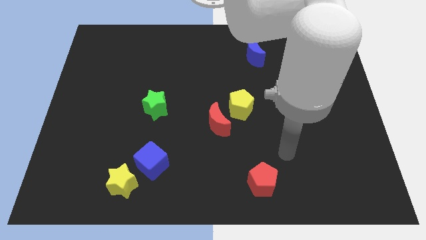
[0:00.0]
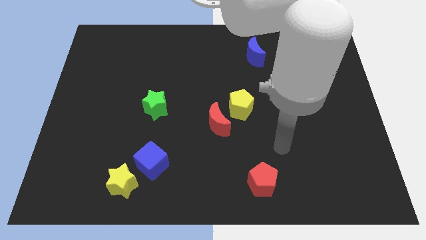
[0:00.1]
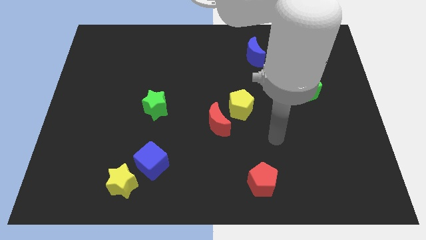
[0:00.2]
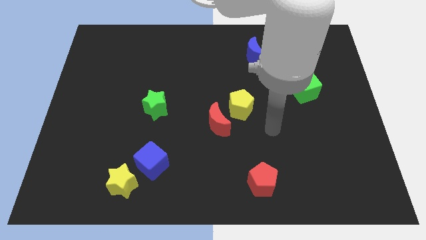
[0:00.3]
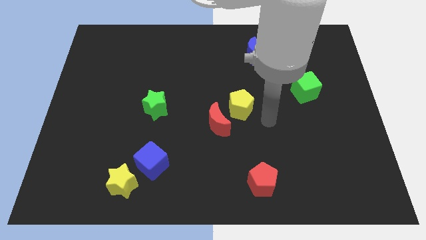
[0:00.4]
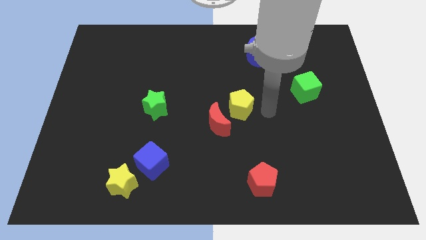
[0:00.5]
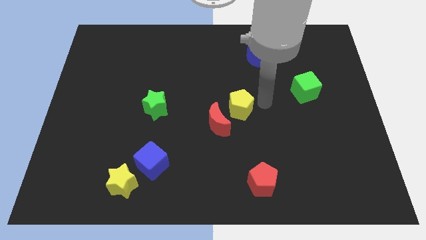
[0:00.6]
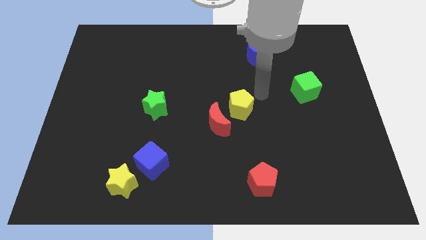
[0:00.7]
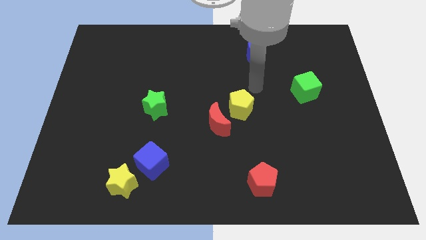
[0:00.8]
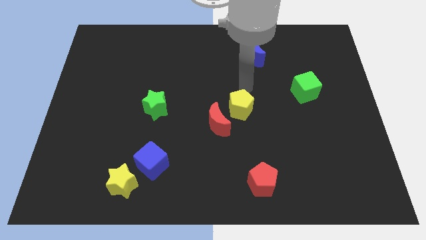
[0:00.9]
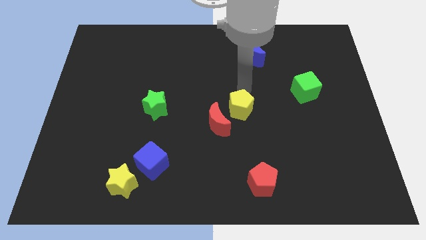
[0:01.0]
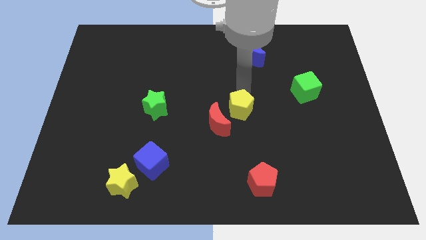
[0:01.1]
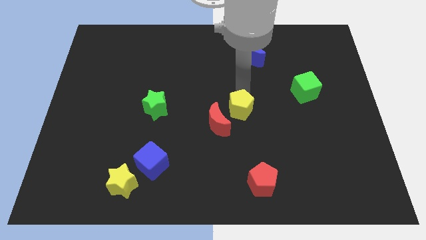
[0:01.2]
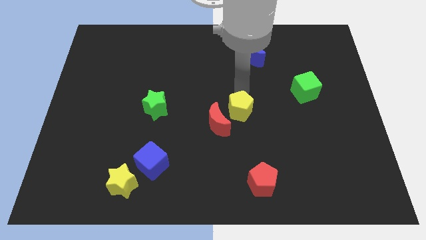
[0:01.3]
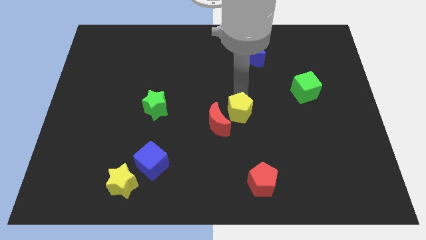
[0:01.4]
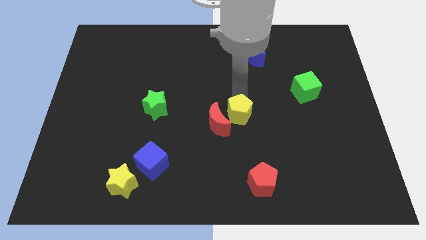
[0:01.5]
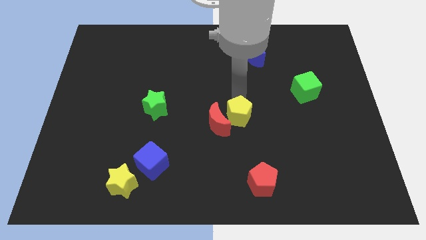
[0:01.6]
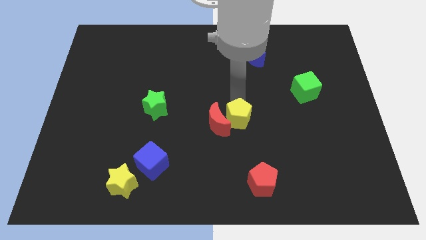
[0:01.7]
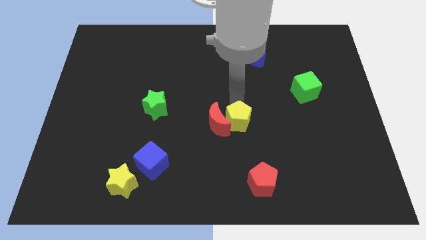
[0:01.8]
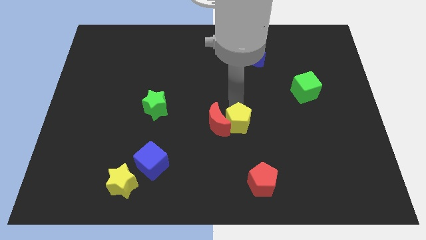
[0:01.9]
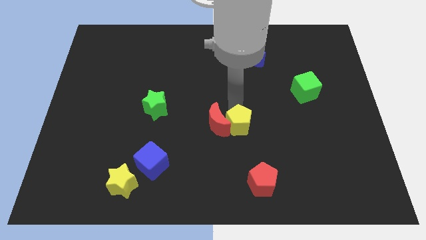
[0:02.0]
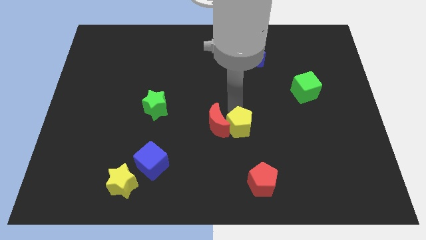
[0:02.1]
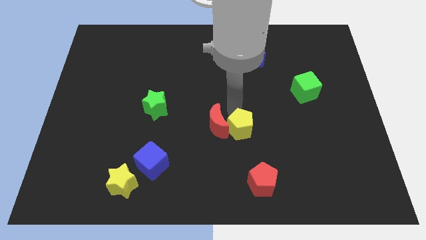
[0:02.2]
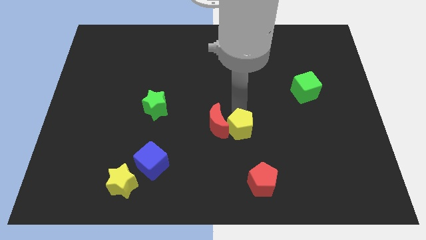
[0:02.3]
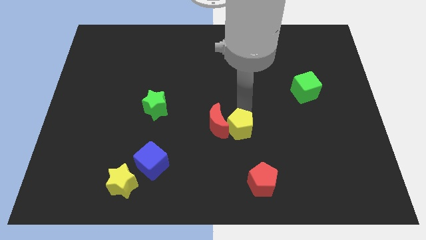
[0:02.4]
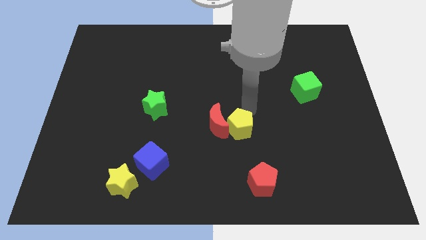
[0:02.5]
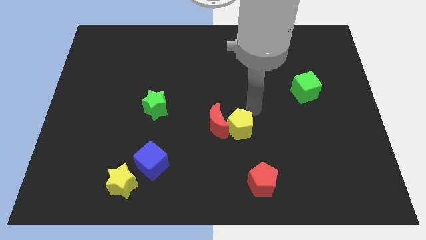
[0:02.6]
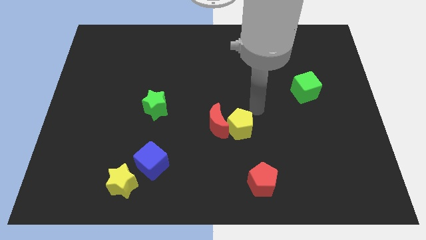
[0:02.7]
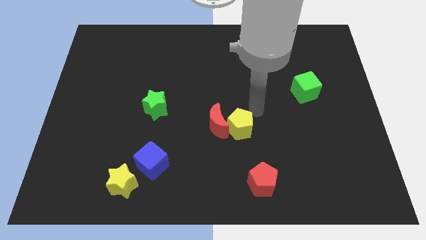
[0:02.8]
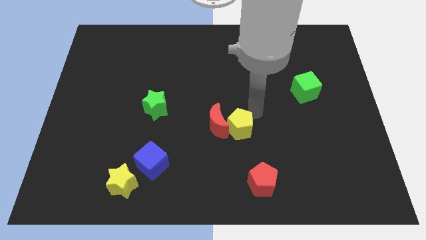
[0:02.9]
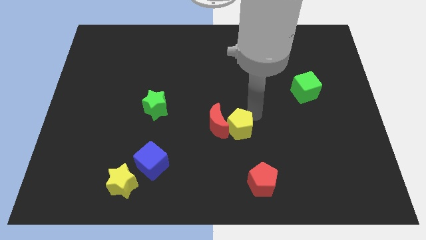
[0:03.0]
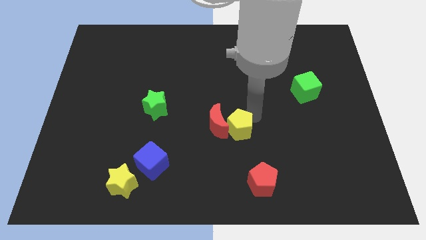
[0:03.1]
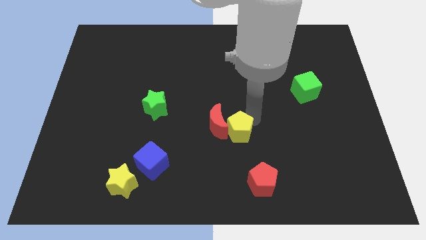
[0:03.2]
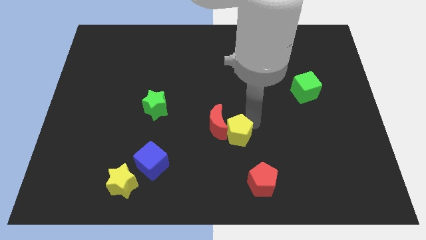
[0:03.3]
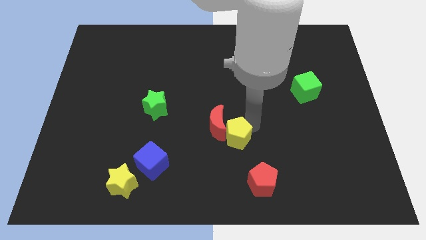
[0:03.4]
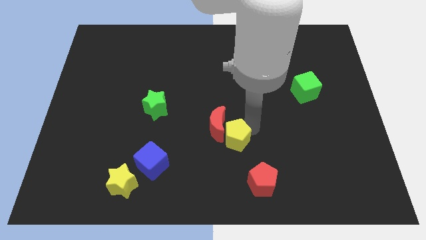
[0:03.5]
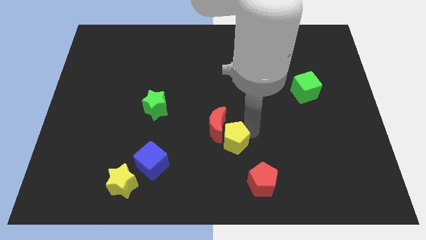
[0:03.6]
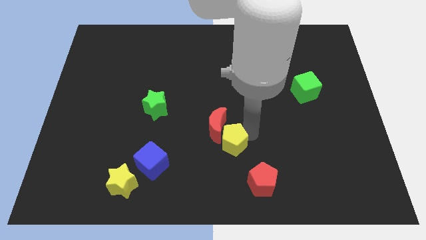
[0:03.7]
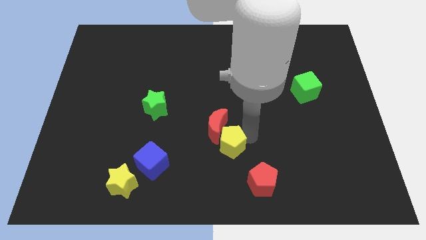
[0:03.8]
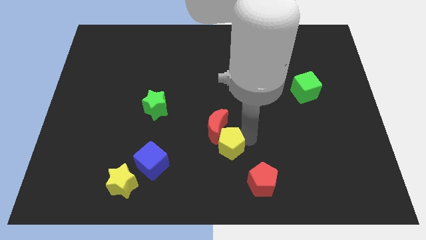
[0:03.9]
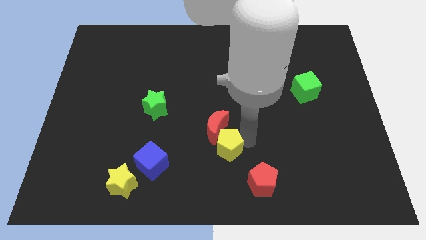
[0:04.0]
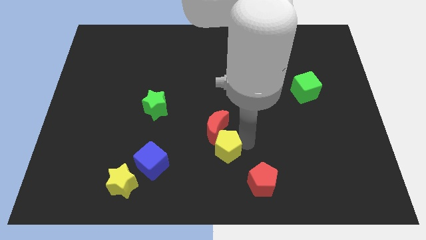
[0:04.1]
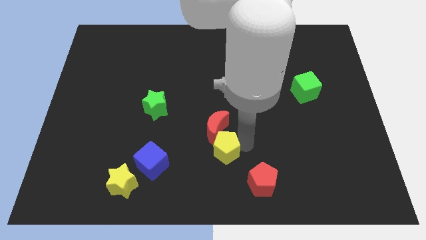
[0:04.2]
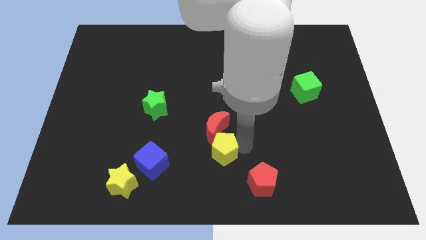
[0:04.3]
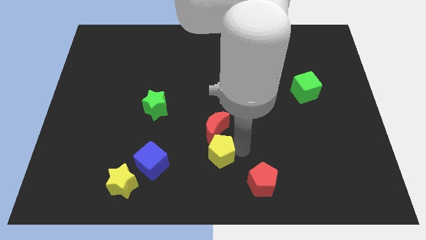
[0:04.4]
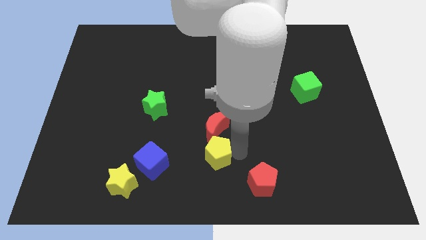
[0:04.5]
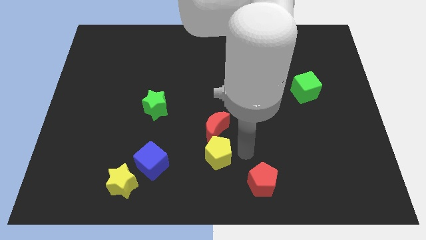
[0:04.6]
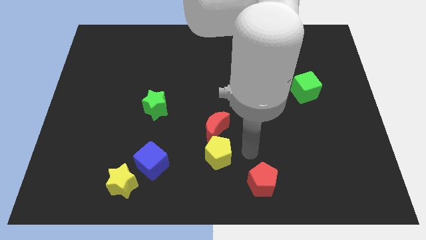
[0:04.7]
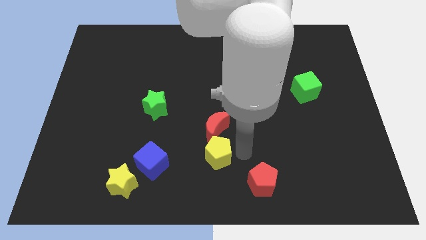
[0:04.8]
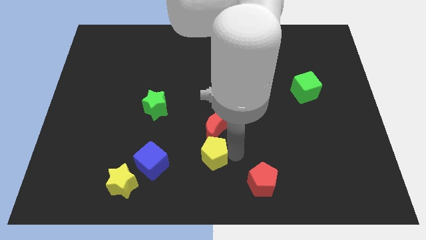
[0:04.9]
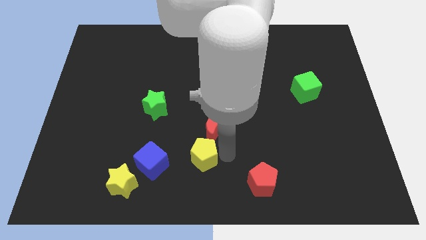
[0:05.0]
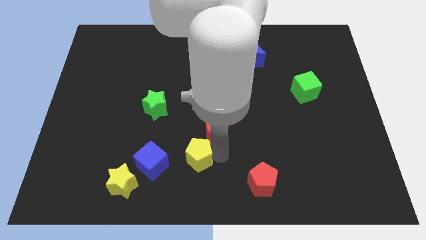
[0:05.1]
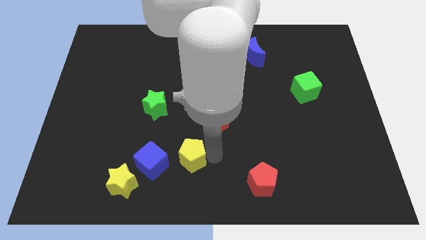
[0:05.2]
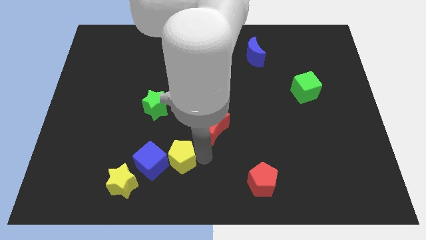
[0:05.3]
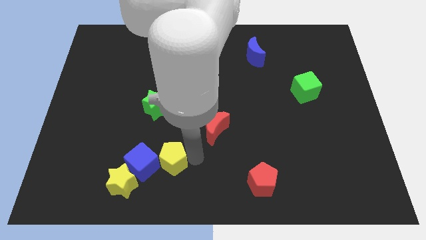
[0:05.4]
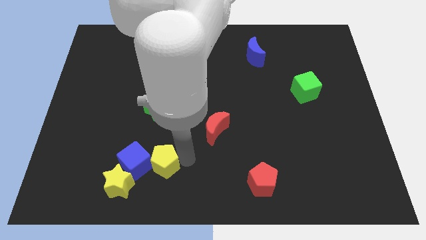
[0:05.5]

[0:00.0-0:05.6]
move the yellow pentagon to the blue cube

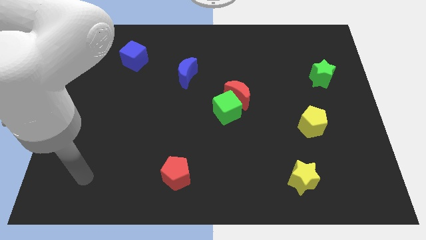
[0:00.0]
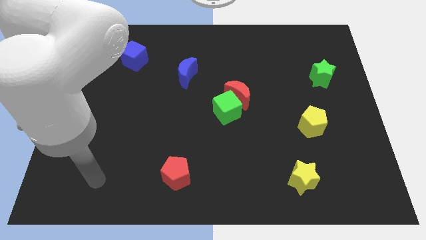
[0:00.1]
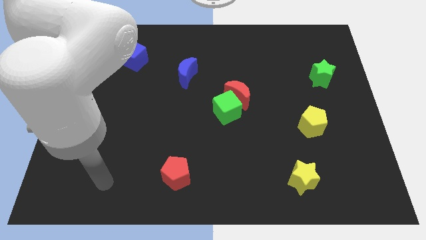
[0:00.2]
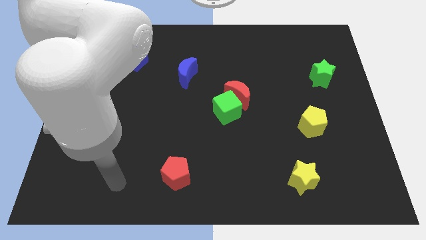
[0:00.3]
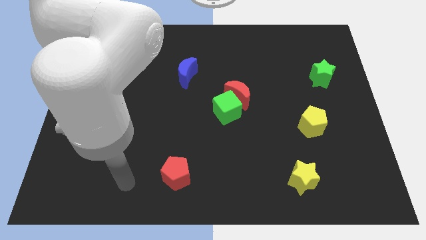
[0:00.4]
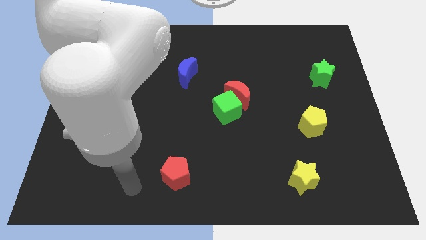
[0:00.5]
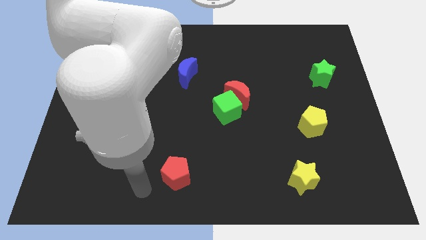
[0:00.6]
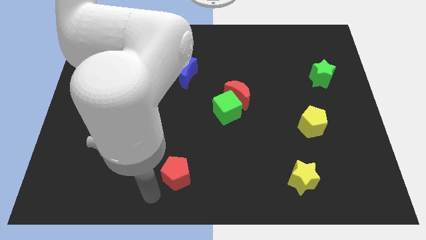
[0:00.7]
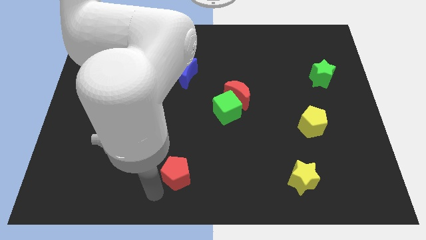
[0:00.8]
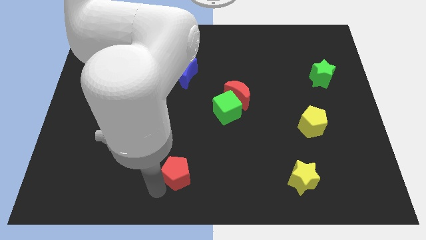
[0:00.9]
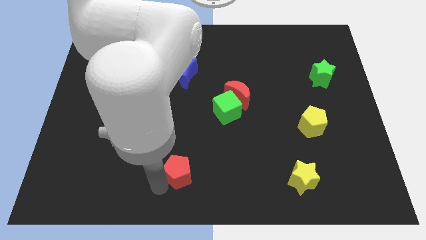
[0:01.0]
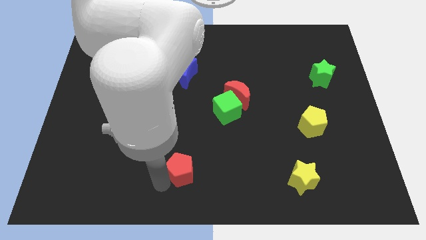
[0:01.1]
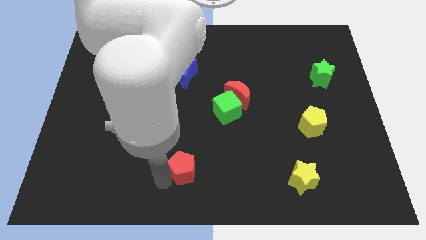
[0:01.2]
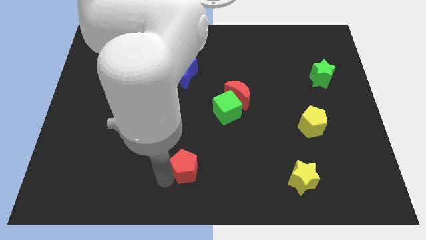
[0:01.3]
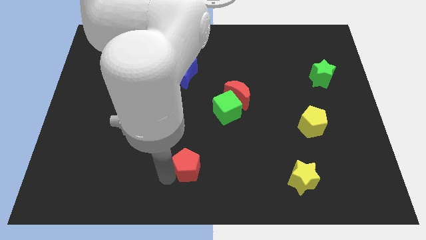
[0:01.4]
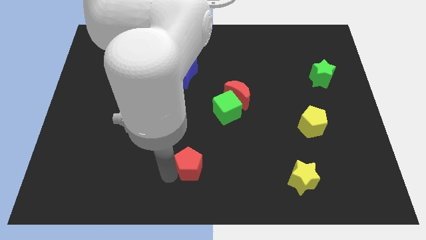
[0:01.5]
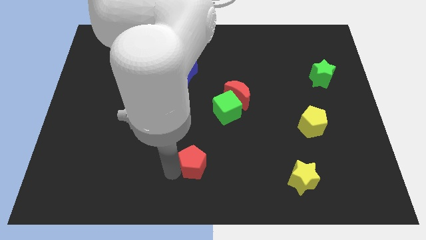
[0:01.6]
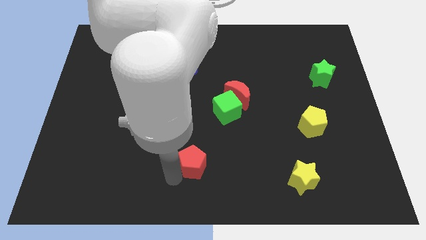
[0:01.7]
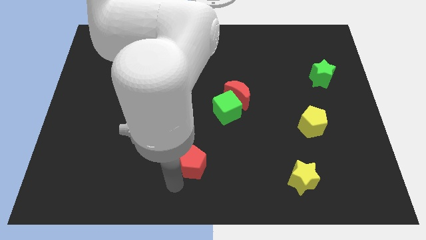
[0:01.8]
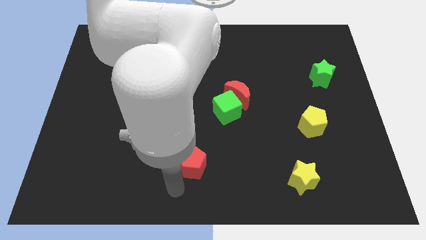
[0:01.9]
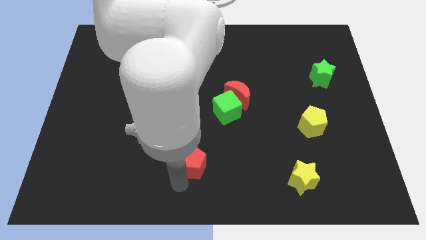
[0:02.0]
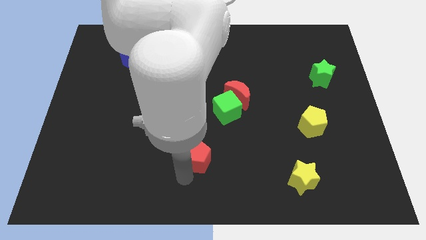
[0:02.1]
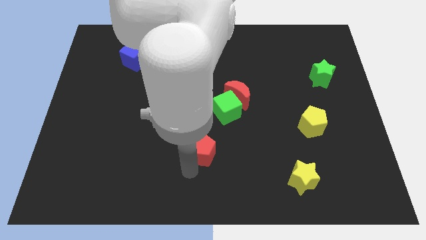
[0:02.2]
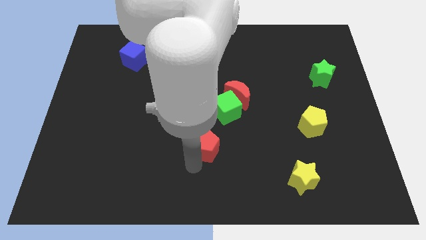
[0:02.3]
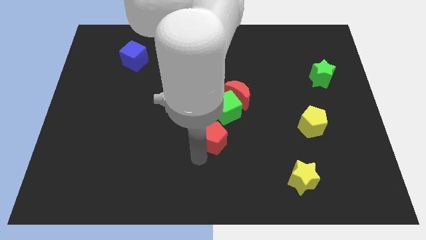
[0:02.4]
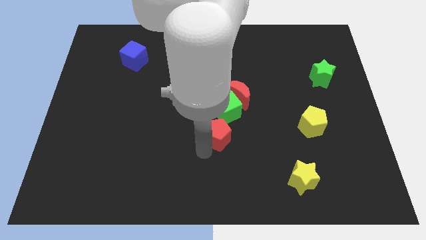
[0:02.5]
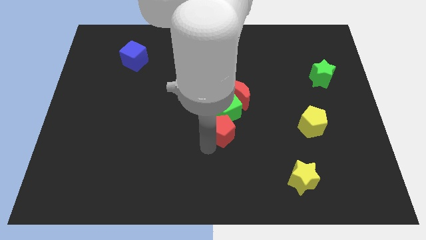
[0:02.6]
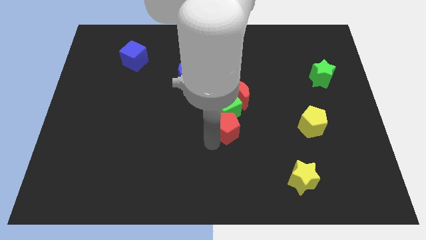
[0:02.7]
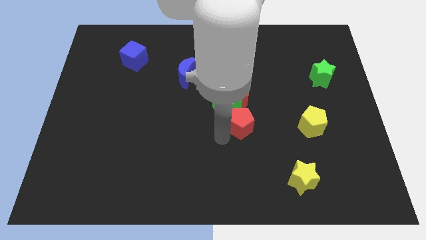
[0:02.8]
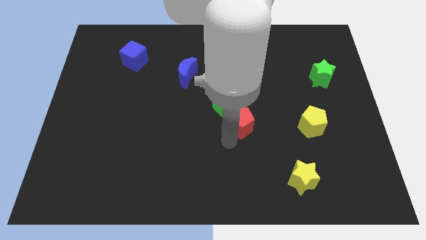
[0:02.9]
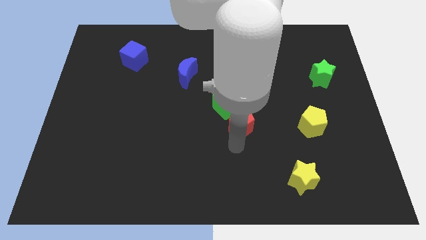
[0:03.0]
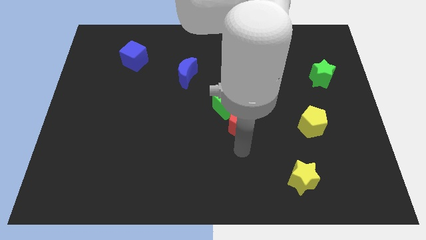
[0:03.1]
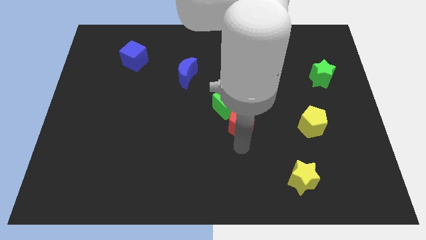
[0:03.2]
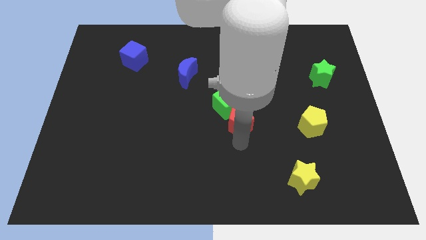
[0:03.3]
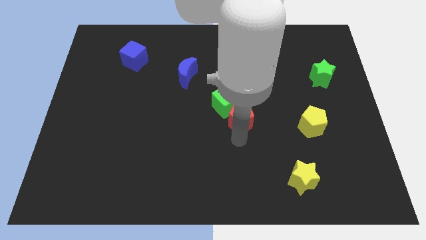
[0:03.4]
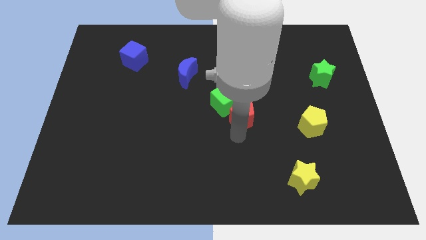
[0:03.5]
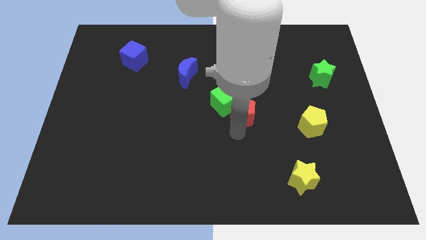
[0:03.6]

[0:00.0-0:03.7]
push the red pentagon next to the red moon
